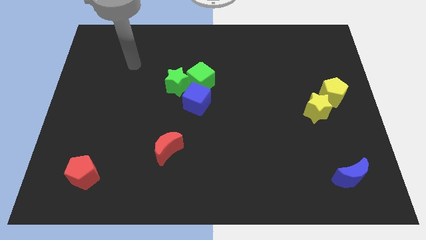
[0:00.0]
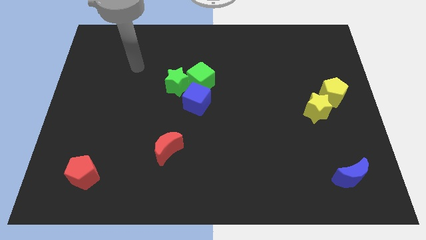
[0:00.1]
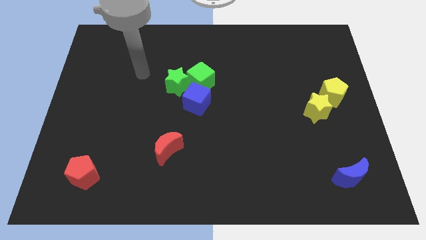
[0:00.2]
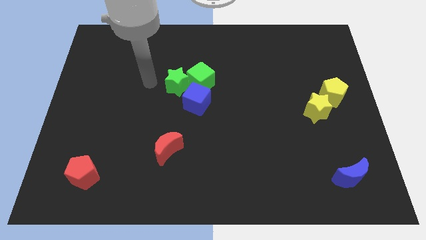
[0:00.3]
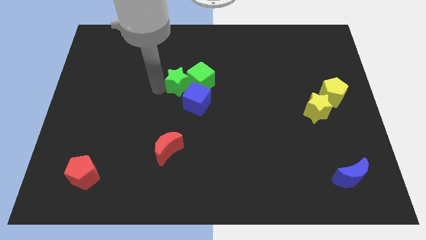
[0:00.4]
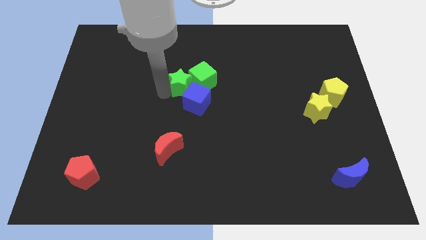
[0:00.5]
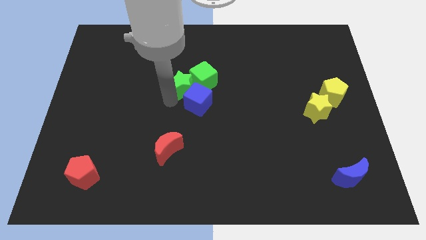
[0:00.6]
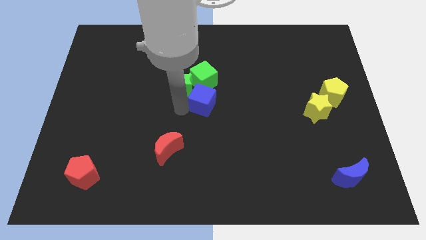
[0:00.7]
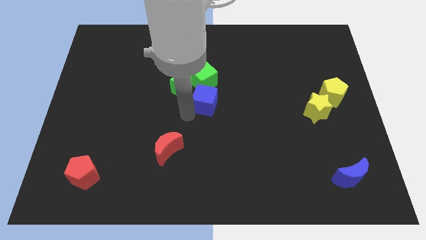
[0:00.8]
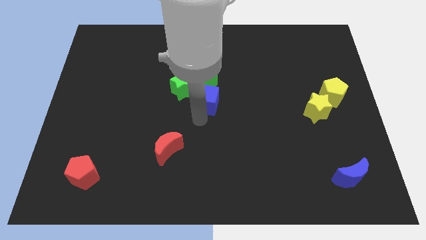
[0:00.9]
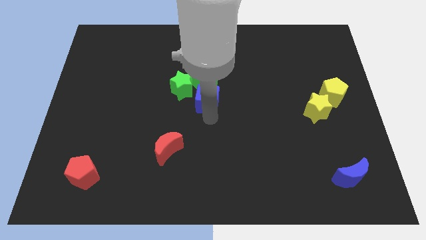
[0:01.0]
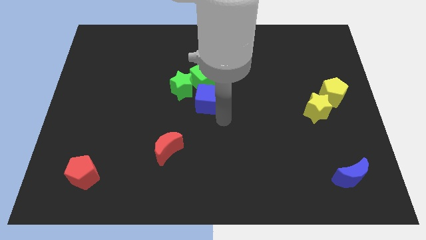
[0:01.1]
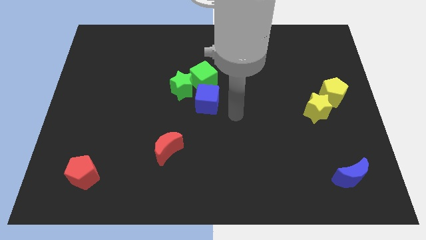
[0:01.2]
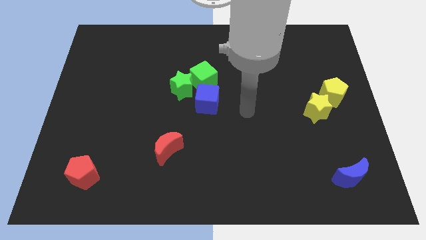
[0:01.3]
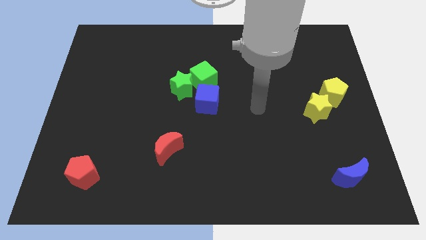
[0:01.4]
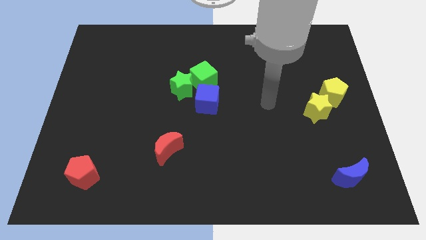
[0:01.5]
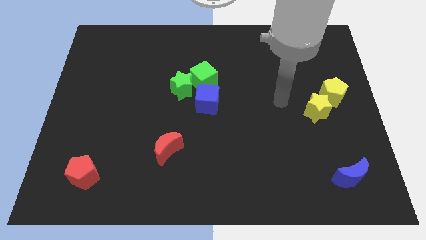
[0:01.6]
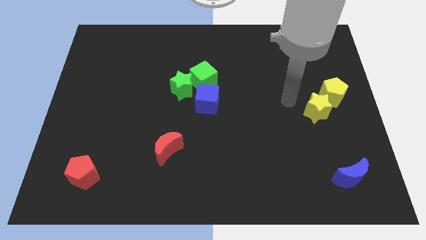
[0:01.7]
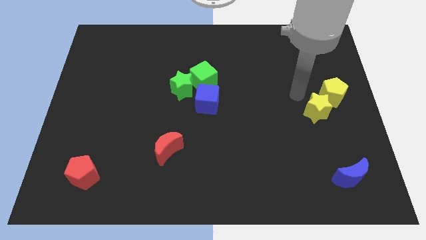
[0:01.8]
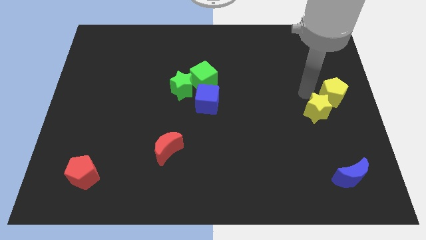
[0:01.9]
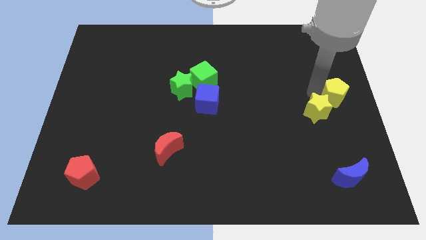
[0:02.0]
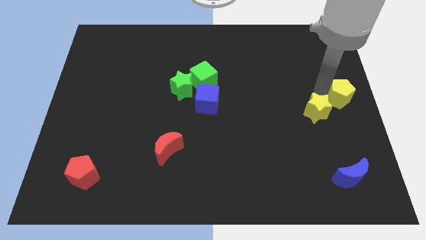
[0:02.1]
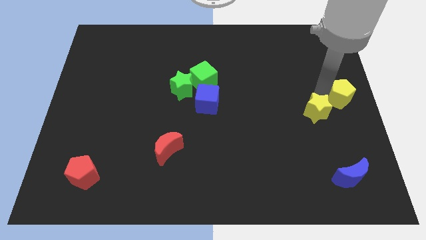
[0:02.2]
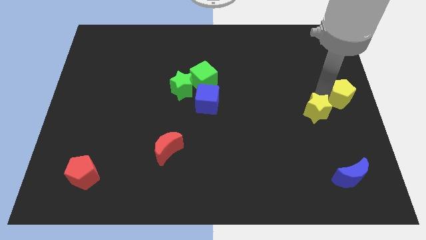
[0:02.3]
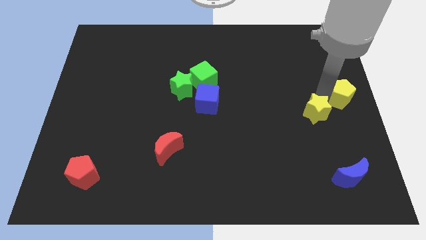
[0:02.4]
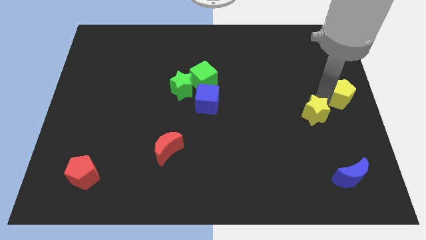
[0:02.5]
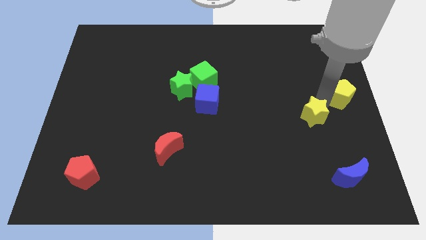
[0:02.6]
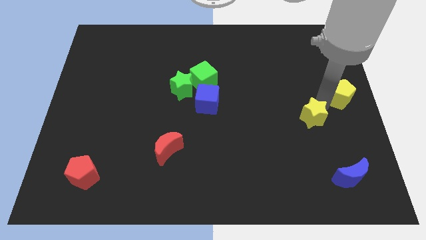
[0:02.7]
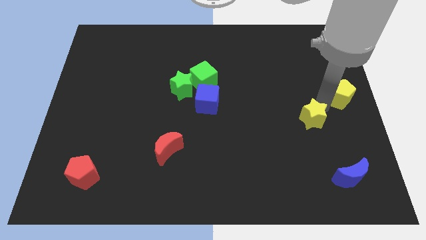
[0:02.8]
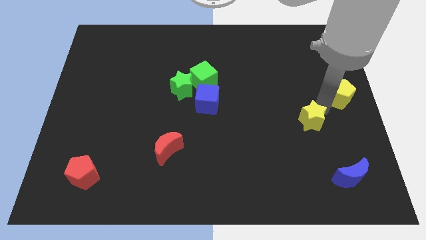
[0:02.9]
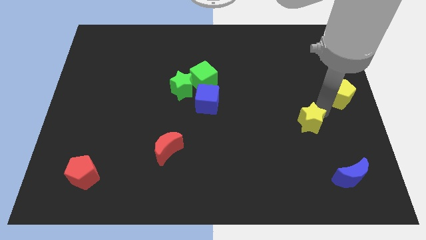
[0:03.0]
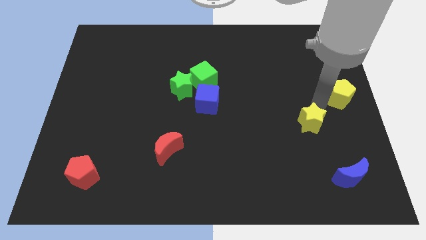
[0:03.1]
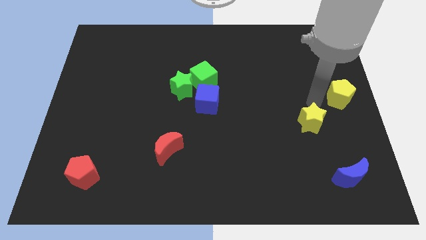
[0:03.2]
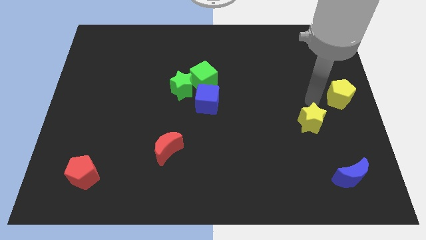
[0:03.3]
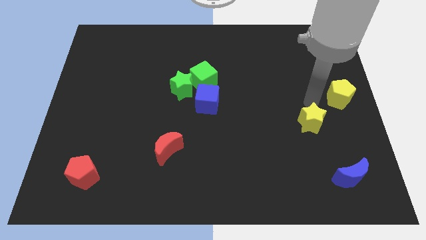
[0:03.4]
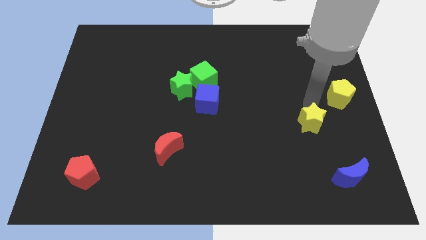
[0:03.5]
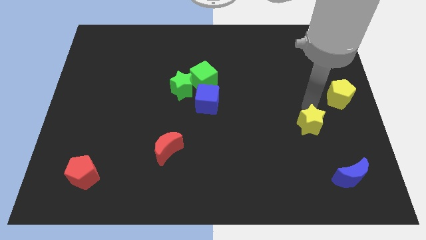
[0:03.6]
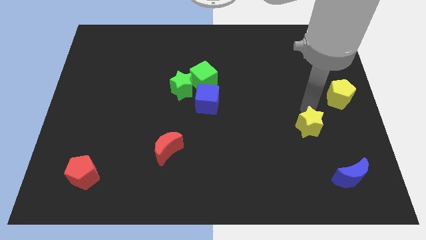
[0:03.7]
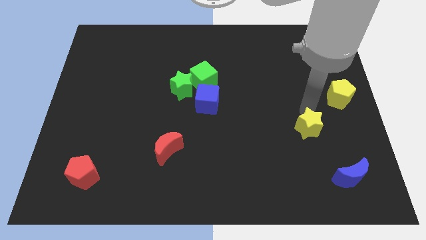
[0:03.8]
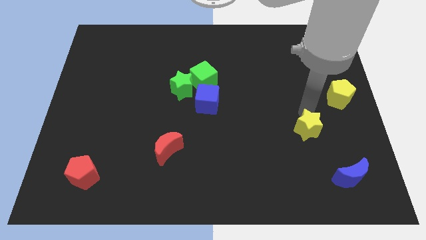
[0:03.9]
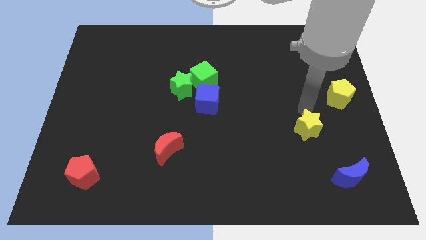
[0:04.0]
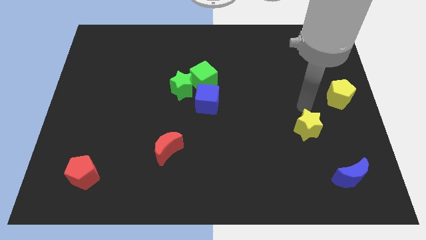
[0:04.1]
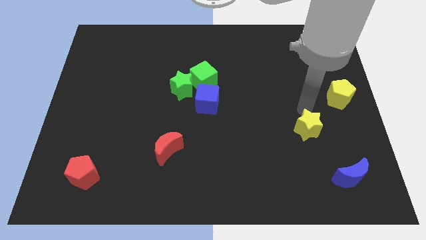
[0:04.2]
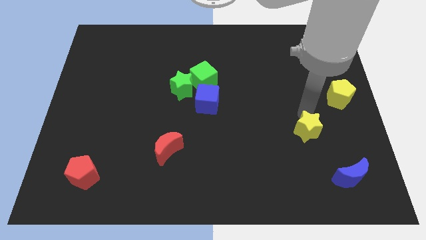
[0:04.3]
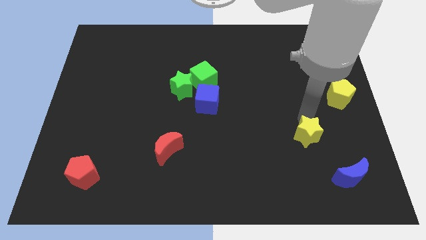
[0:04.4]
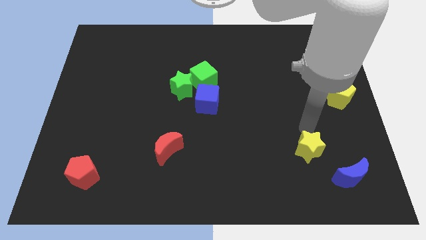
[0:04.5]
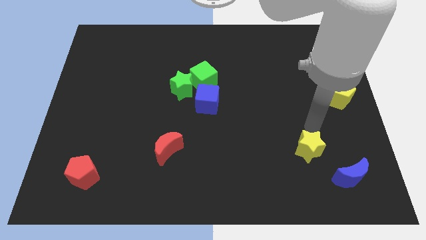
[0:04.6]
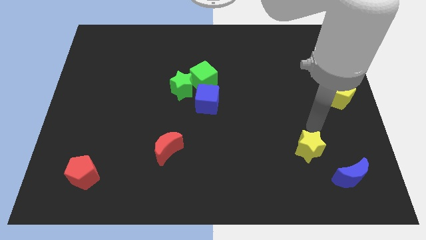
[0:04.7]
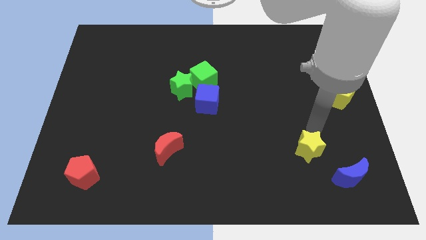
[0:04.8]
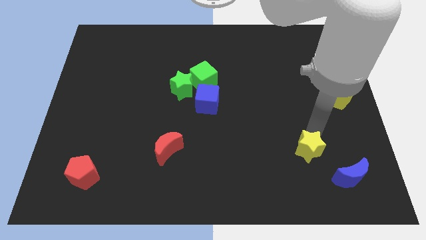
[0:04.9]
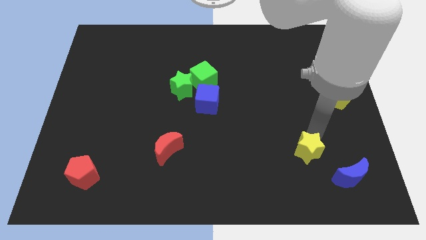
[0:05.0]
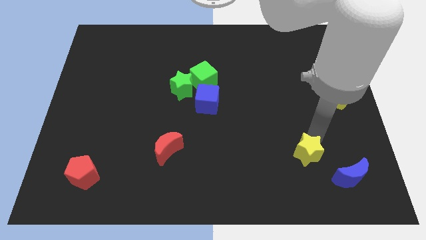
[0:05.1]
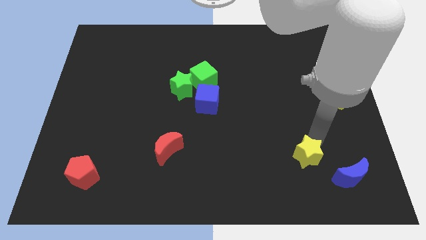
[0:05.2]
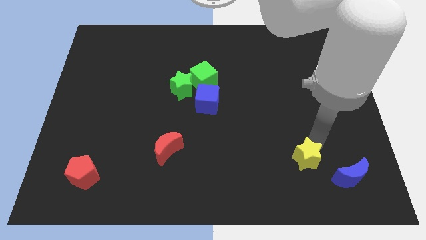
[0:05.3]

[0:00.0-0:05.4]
slide the yellow star to the left side of the blue moon

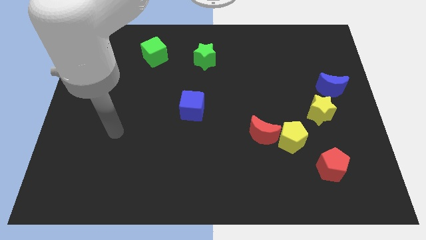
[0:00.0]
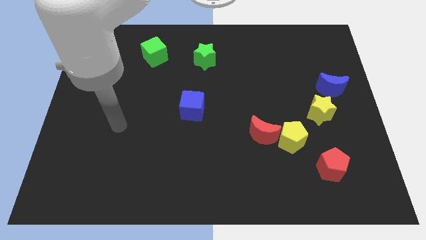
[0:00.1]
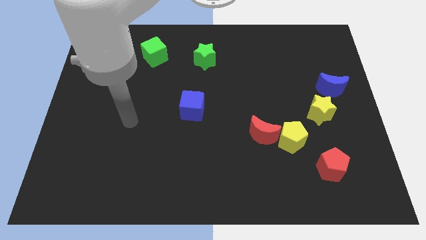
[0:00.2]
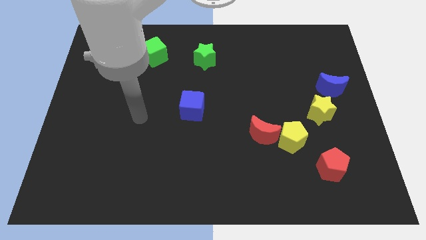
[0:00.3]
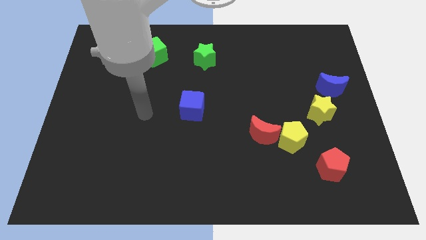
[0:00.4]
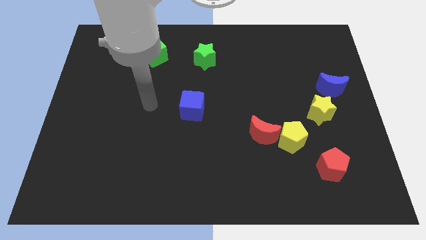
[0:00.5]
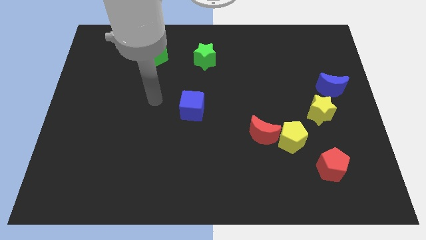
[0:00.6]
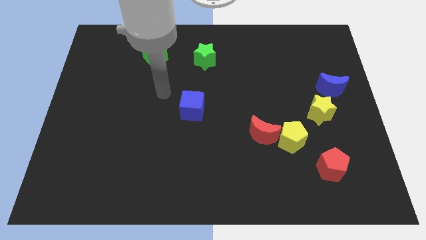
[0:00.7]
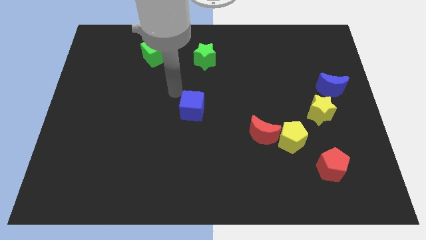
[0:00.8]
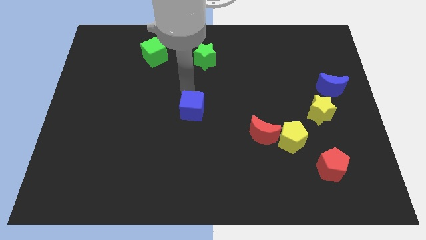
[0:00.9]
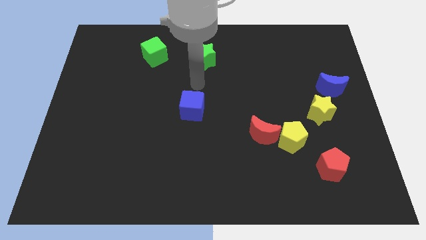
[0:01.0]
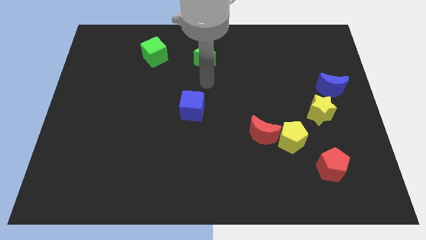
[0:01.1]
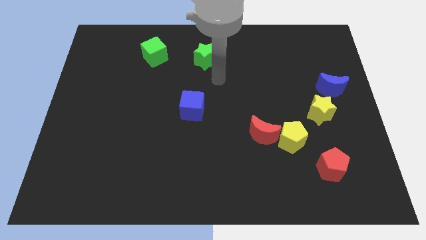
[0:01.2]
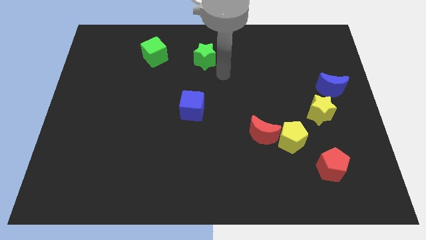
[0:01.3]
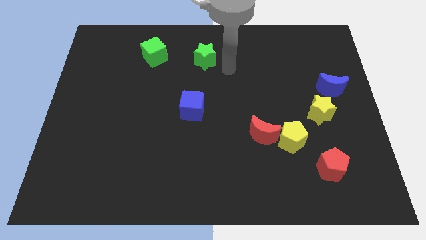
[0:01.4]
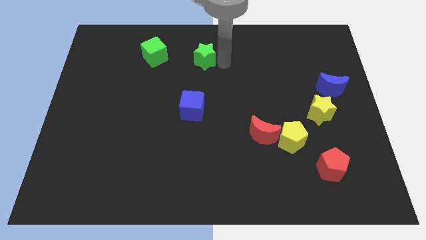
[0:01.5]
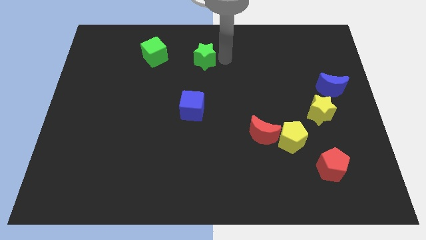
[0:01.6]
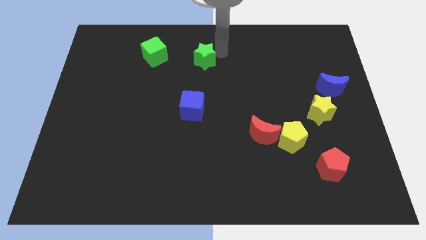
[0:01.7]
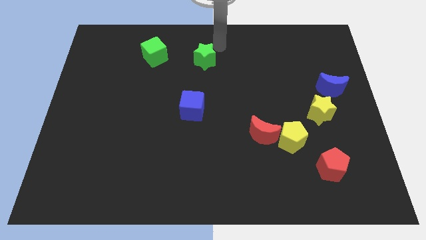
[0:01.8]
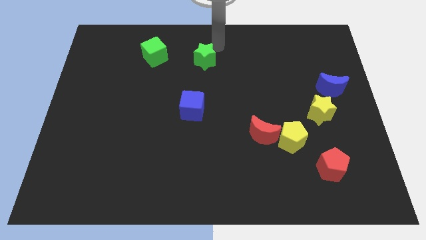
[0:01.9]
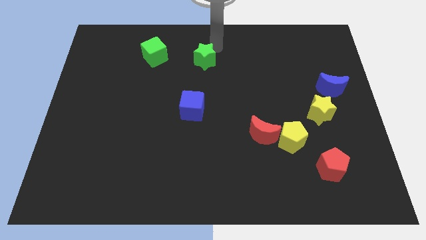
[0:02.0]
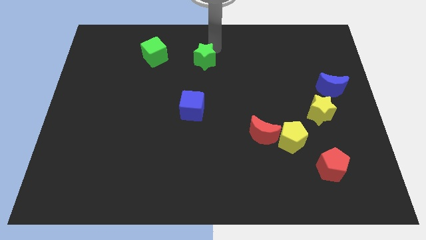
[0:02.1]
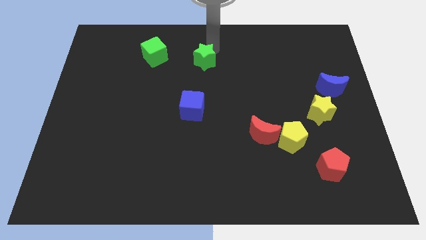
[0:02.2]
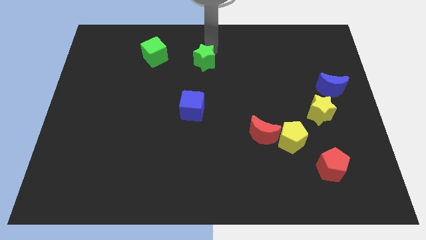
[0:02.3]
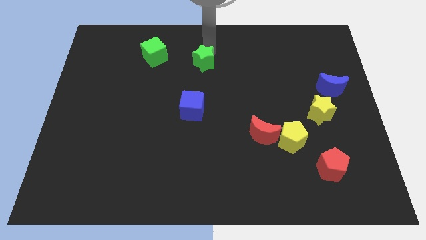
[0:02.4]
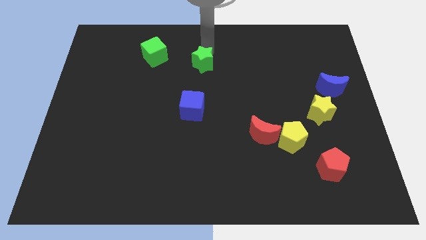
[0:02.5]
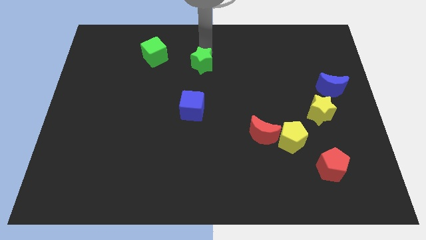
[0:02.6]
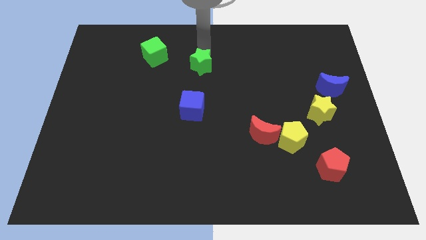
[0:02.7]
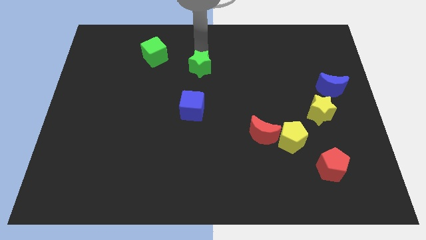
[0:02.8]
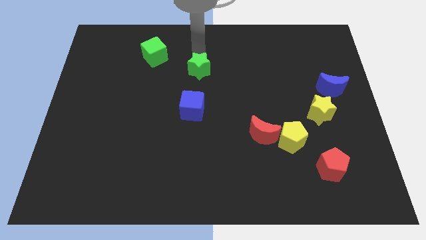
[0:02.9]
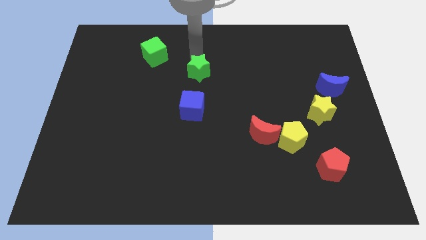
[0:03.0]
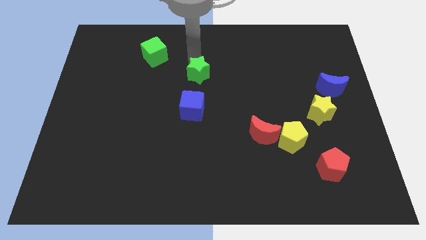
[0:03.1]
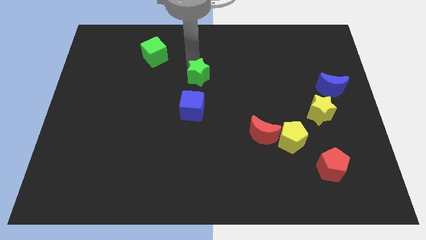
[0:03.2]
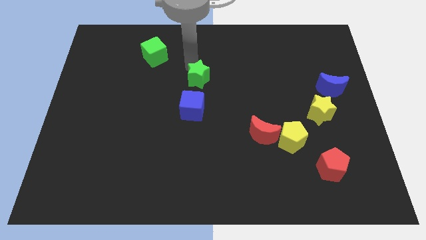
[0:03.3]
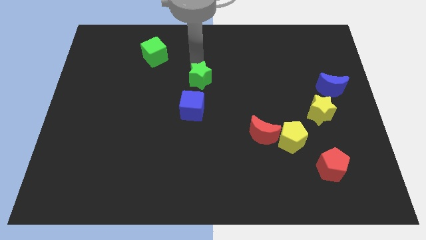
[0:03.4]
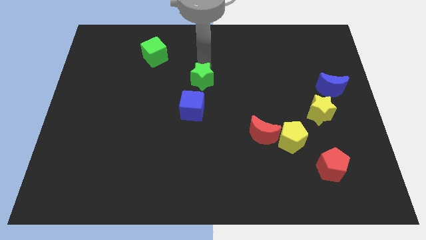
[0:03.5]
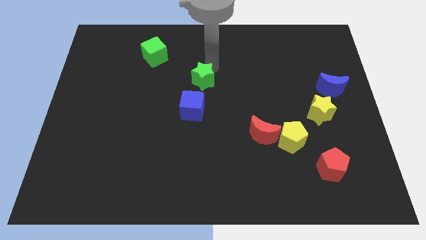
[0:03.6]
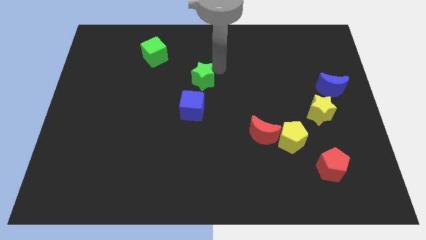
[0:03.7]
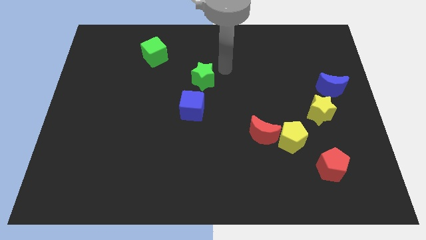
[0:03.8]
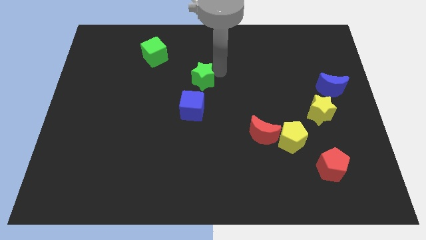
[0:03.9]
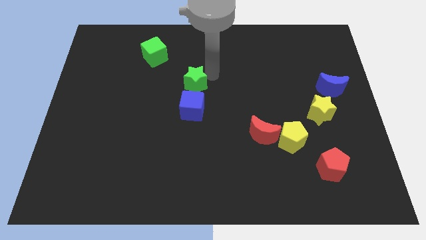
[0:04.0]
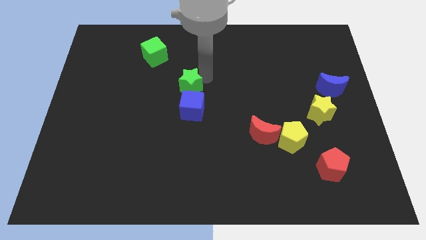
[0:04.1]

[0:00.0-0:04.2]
slide the green star diagonally up and to the left of the blue cube
